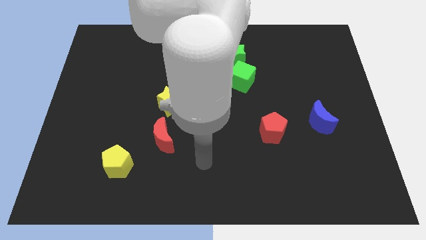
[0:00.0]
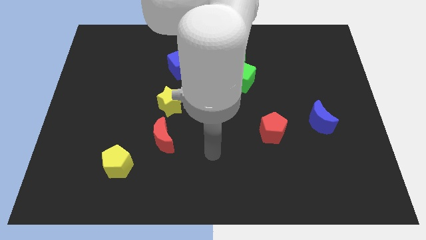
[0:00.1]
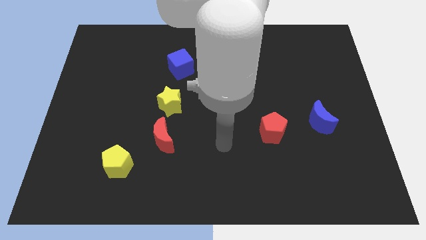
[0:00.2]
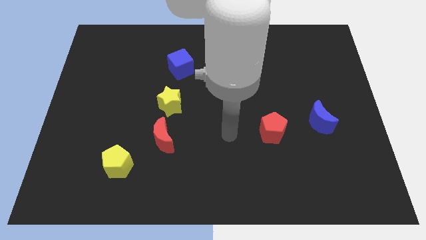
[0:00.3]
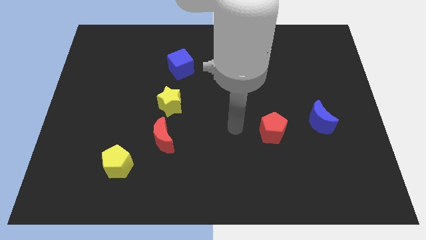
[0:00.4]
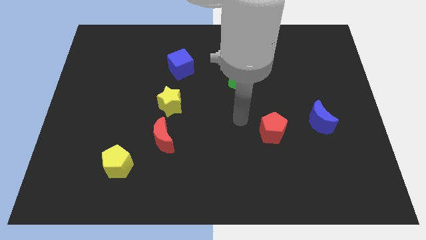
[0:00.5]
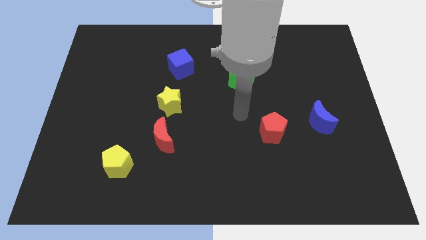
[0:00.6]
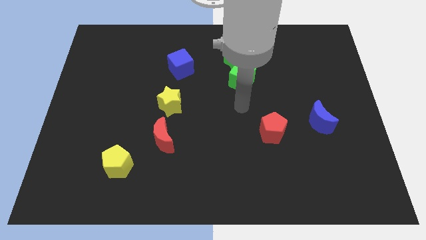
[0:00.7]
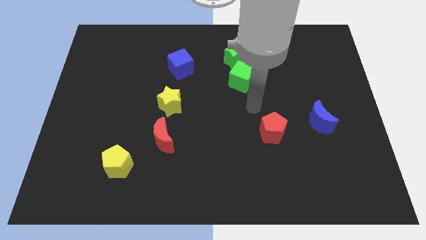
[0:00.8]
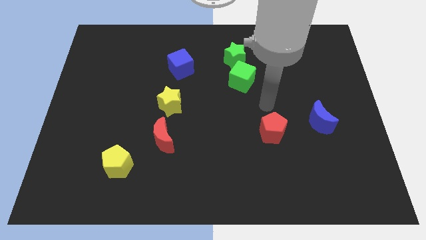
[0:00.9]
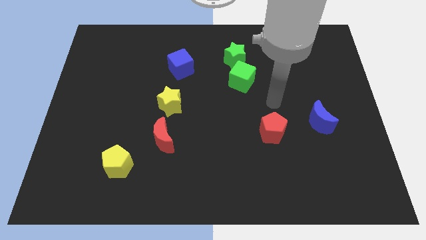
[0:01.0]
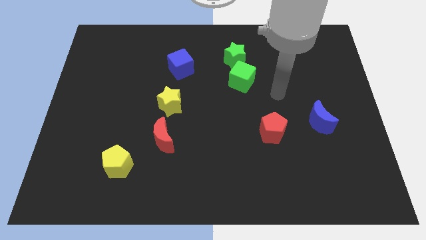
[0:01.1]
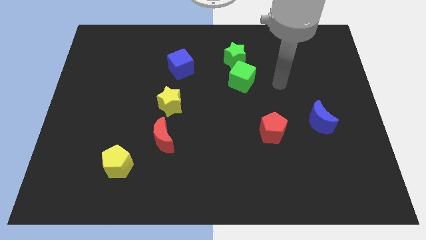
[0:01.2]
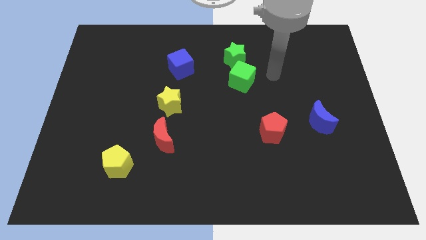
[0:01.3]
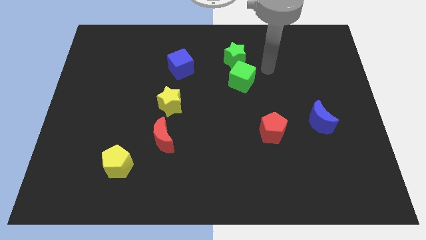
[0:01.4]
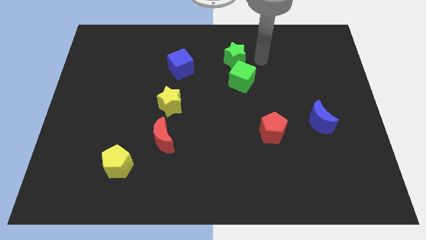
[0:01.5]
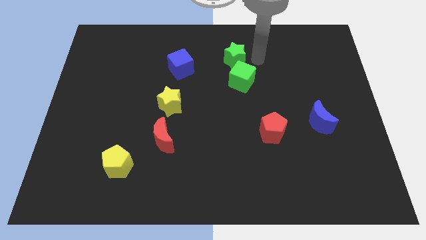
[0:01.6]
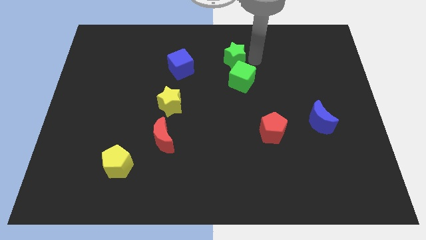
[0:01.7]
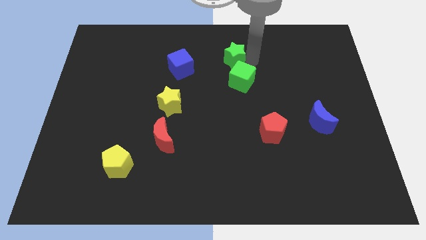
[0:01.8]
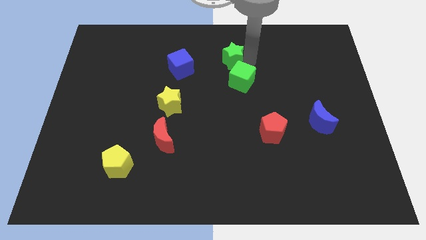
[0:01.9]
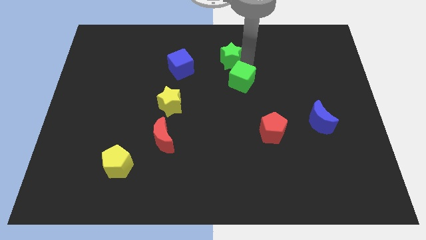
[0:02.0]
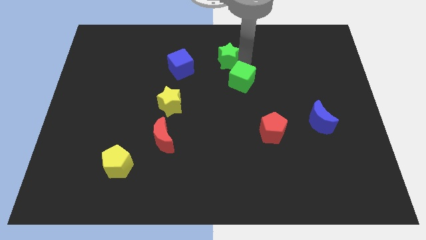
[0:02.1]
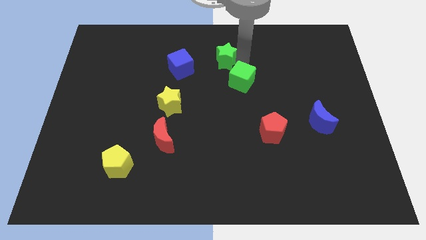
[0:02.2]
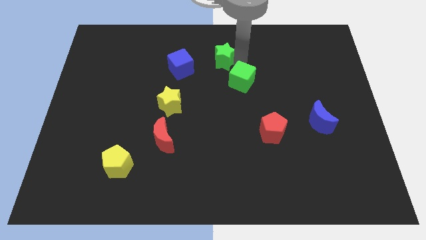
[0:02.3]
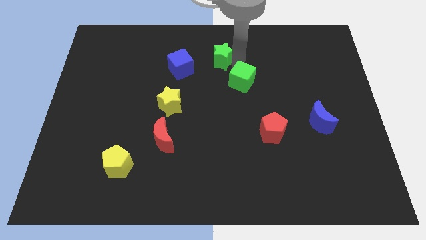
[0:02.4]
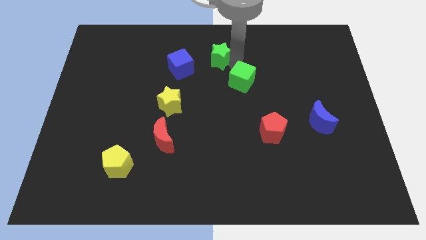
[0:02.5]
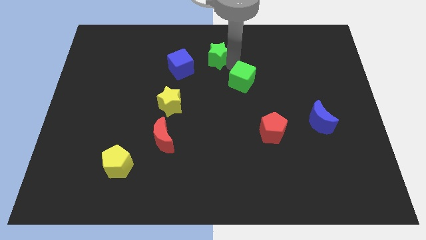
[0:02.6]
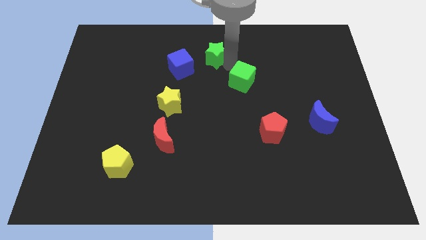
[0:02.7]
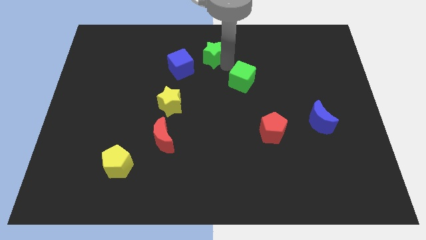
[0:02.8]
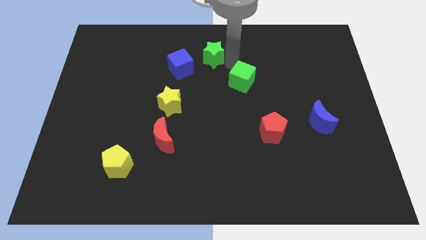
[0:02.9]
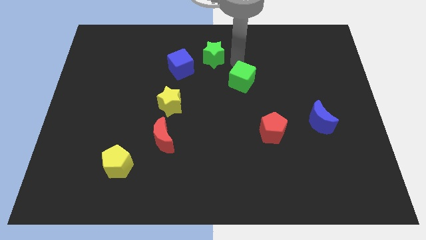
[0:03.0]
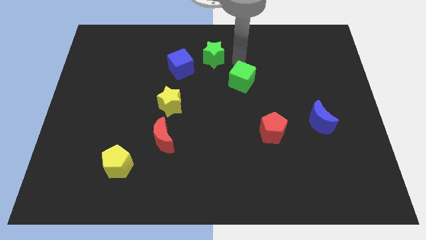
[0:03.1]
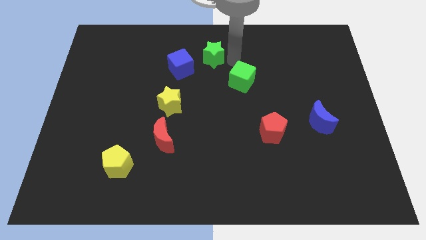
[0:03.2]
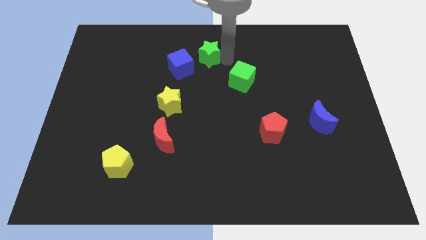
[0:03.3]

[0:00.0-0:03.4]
move the green star slightly left

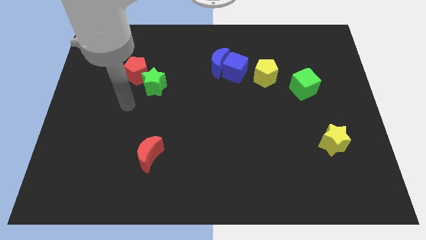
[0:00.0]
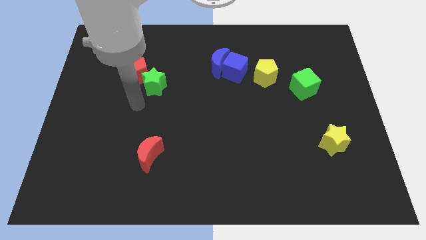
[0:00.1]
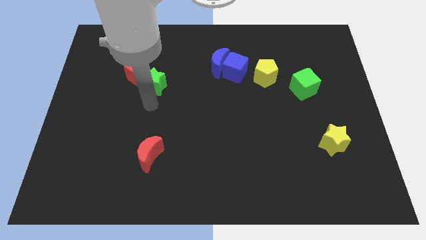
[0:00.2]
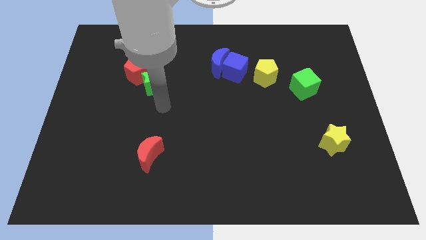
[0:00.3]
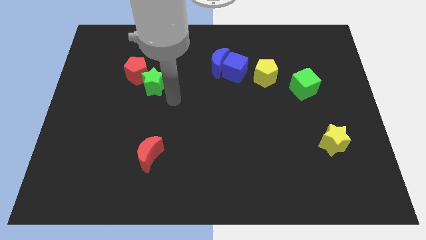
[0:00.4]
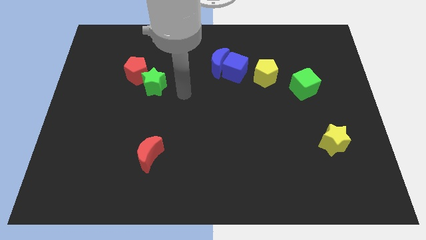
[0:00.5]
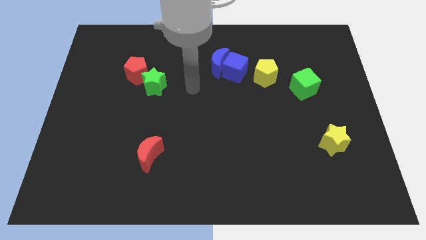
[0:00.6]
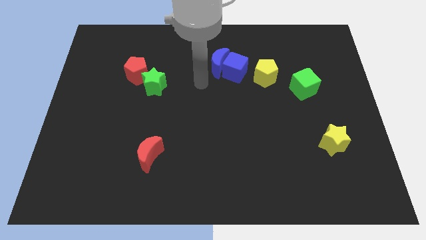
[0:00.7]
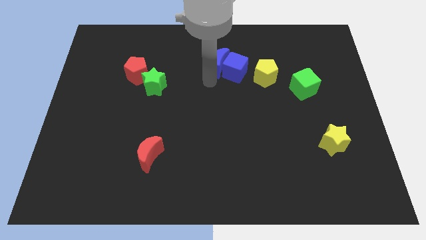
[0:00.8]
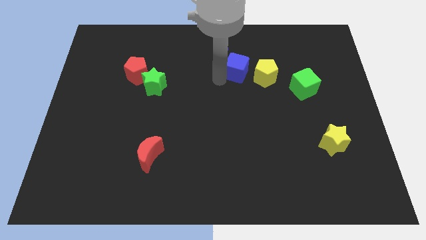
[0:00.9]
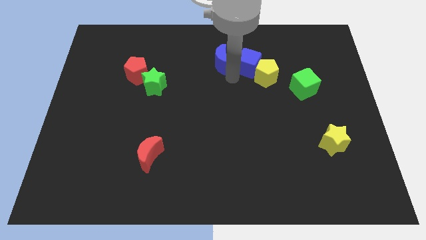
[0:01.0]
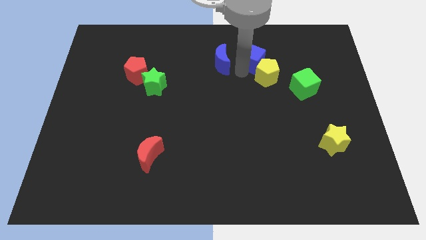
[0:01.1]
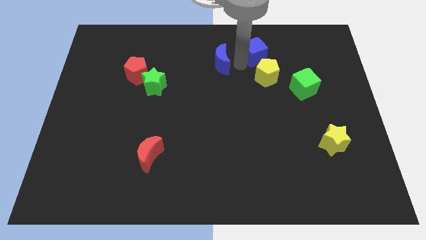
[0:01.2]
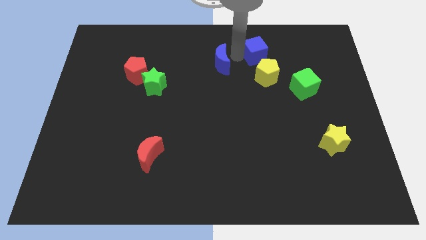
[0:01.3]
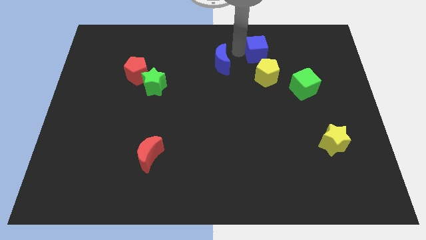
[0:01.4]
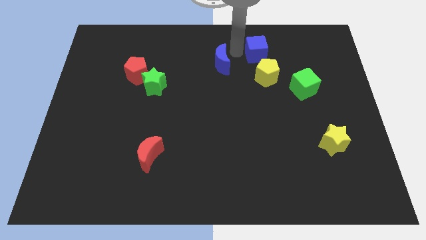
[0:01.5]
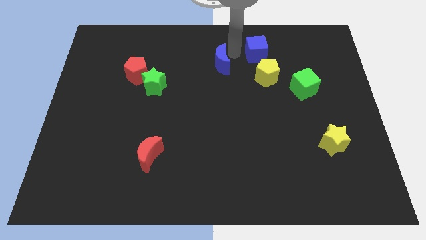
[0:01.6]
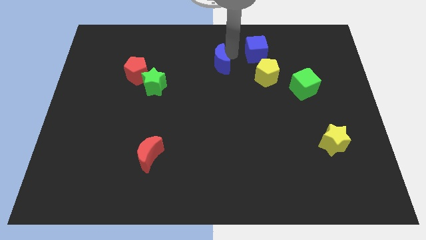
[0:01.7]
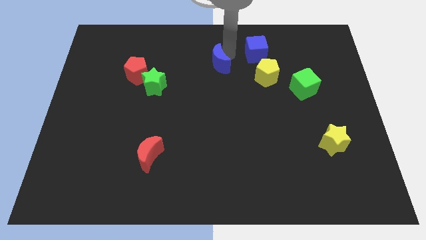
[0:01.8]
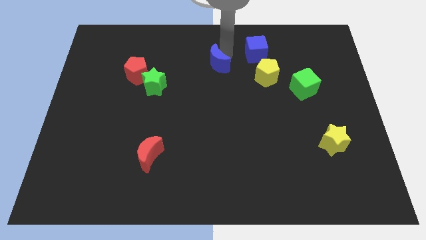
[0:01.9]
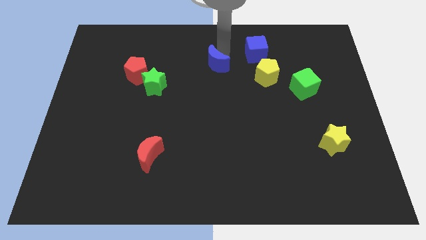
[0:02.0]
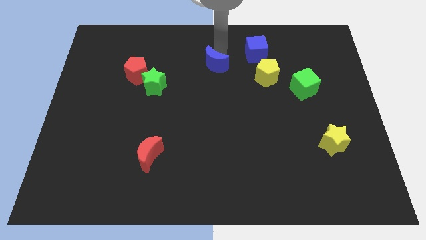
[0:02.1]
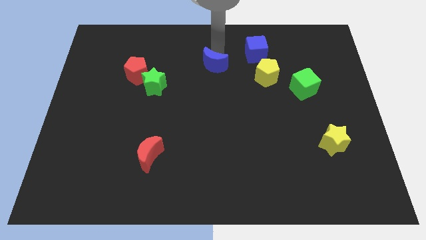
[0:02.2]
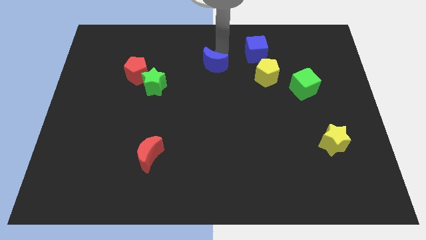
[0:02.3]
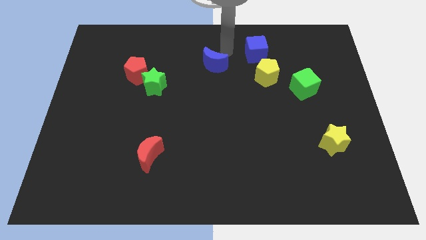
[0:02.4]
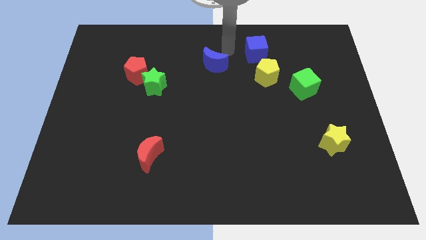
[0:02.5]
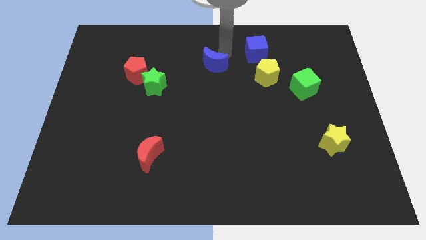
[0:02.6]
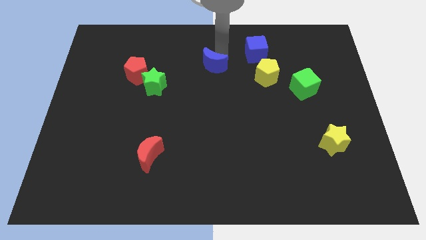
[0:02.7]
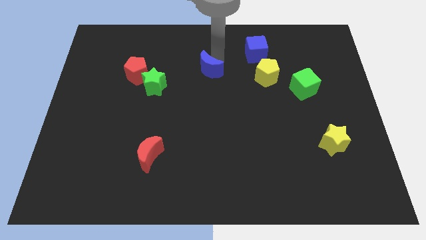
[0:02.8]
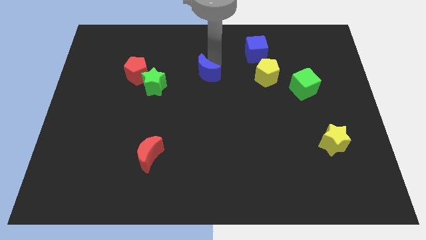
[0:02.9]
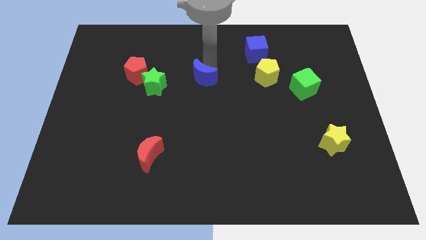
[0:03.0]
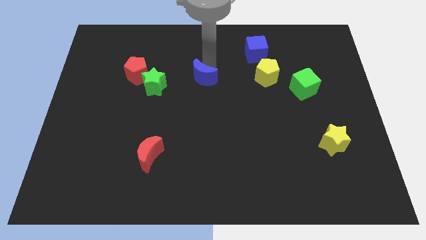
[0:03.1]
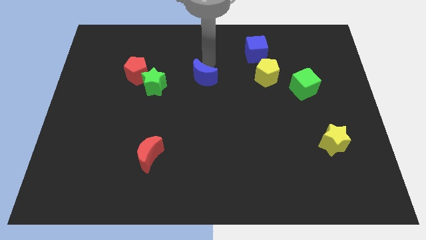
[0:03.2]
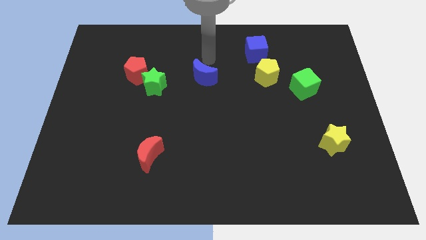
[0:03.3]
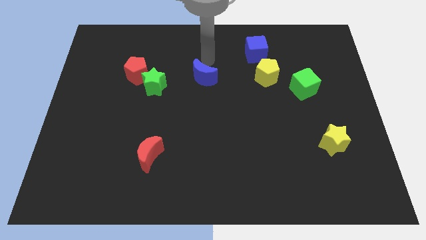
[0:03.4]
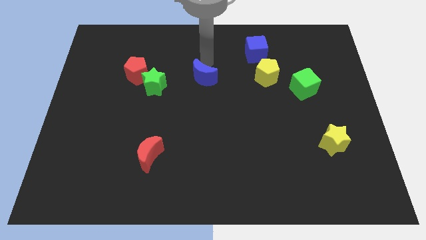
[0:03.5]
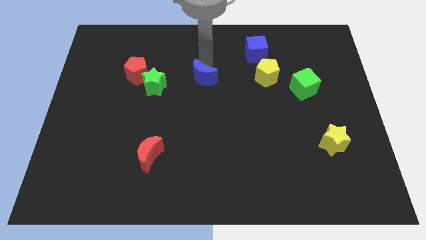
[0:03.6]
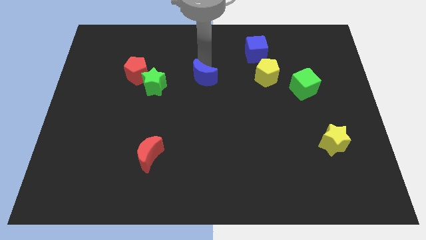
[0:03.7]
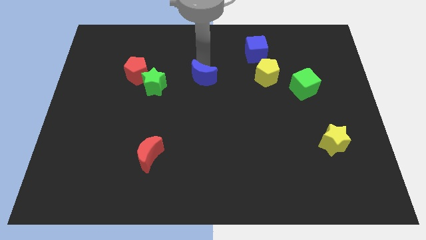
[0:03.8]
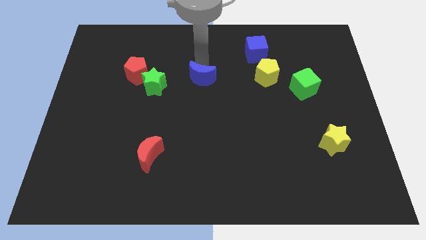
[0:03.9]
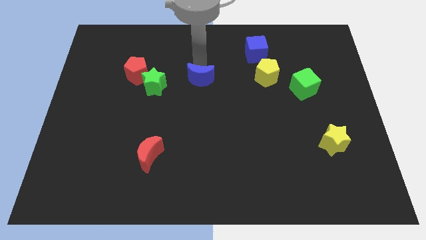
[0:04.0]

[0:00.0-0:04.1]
move the blue moon downwards and then to the left a bit

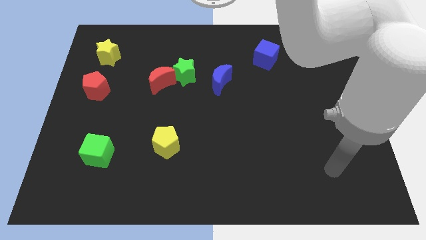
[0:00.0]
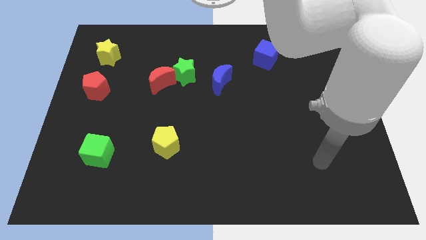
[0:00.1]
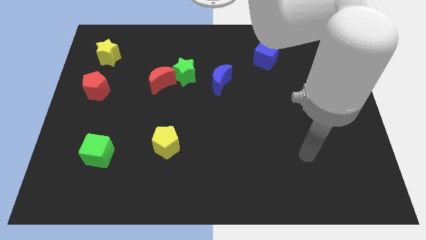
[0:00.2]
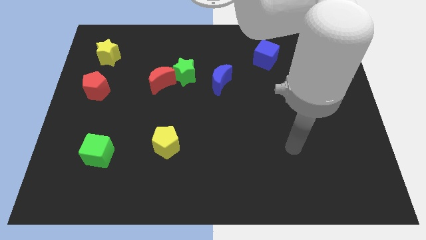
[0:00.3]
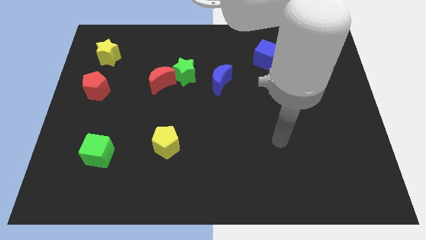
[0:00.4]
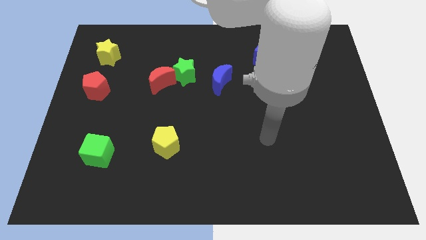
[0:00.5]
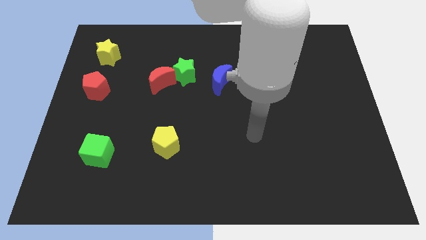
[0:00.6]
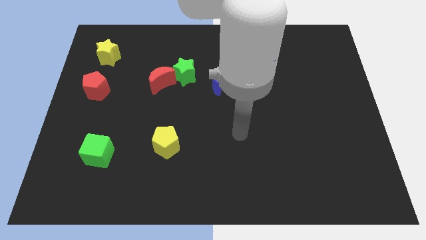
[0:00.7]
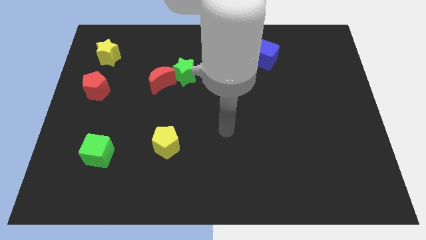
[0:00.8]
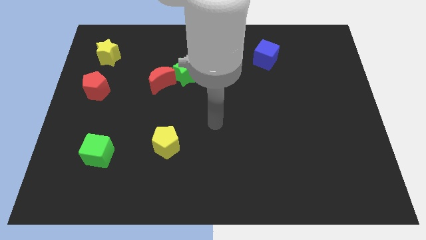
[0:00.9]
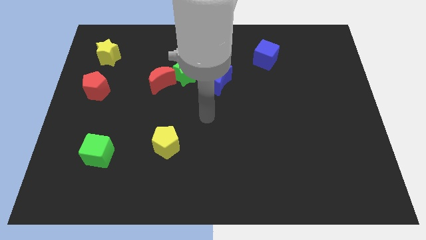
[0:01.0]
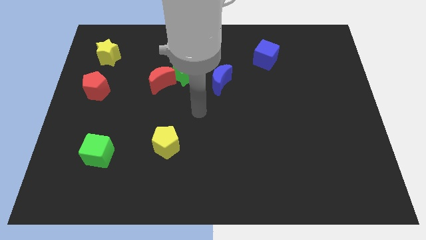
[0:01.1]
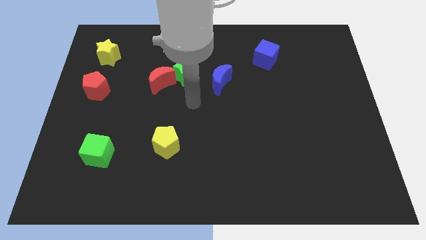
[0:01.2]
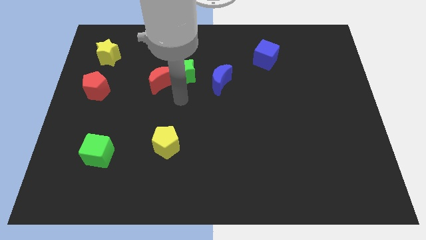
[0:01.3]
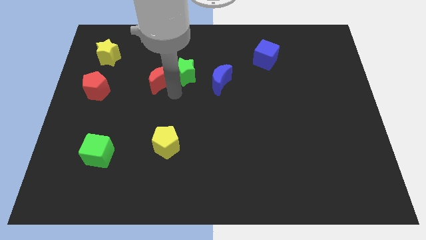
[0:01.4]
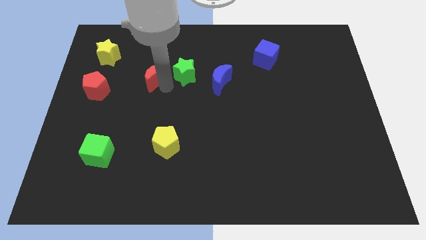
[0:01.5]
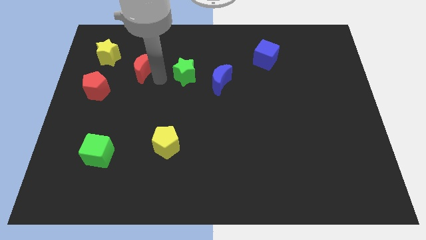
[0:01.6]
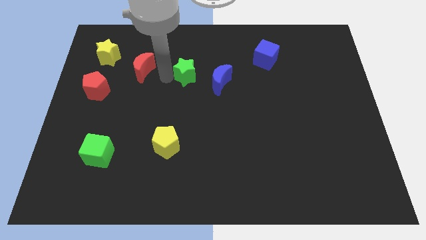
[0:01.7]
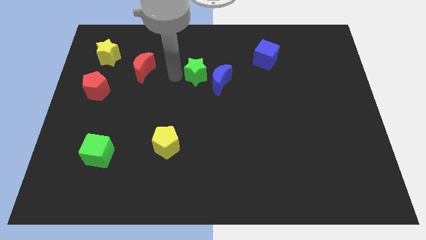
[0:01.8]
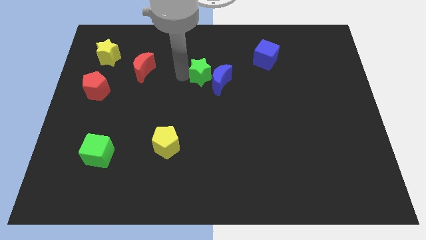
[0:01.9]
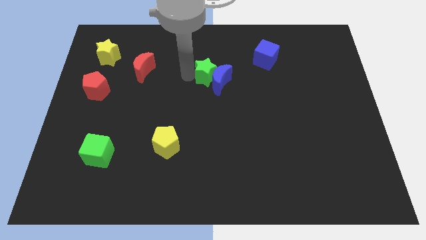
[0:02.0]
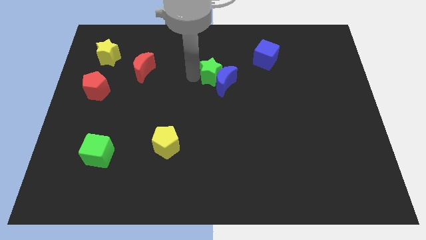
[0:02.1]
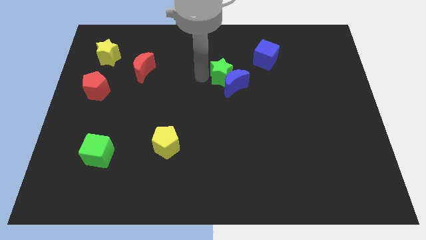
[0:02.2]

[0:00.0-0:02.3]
slide the green star right somewhat
